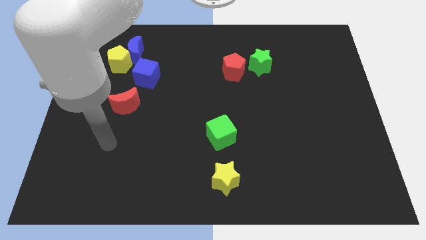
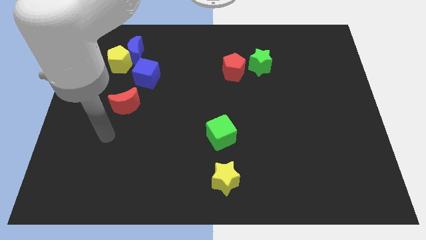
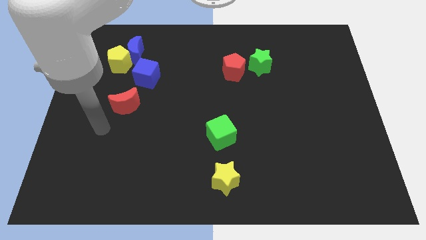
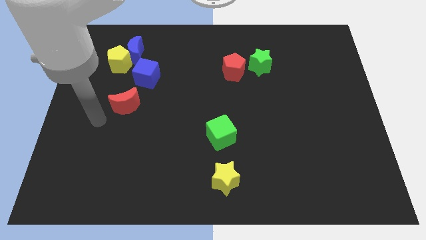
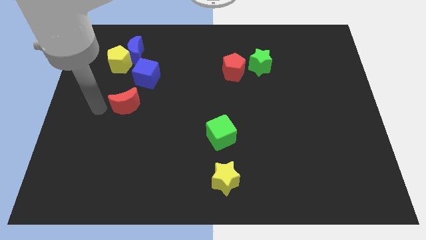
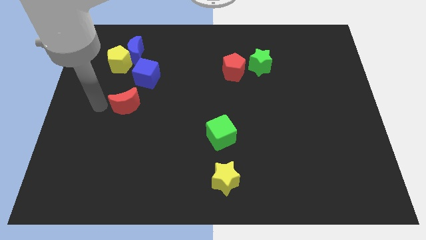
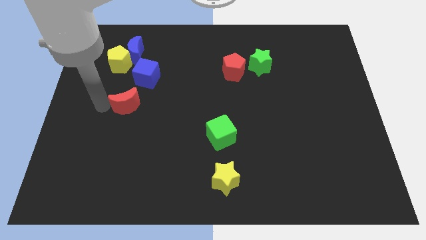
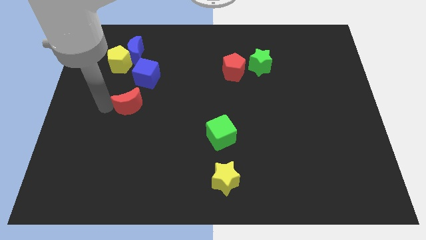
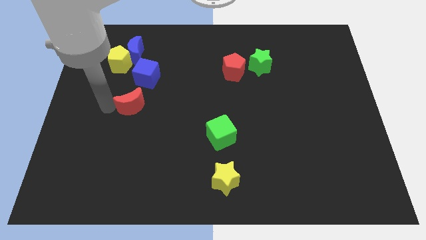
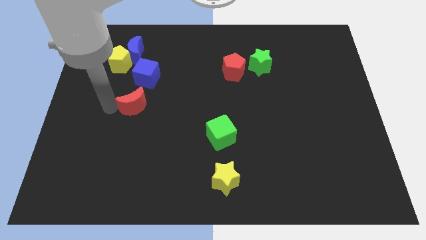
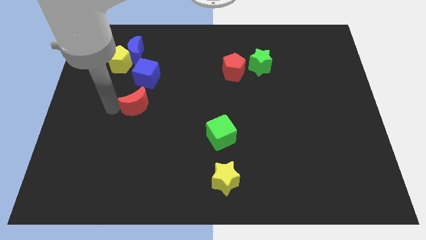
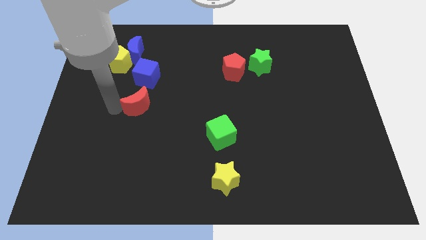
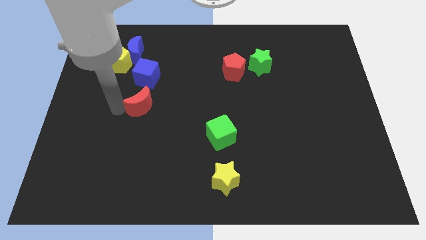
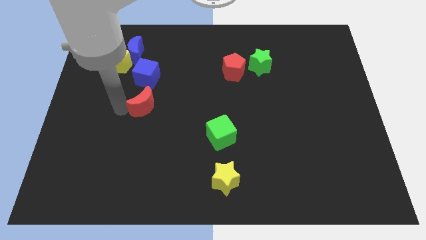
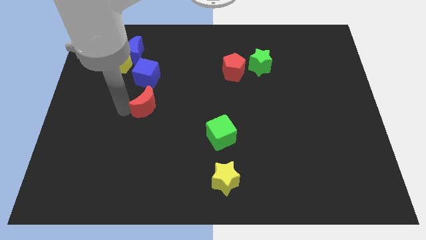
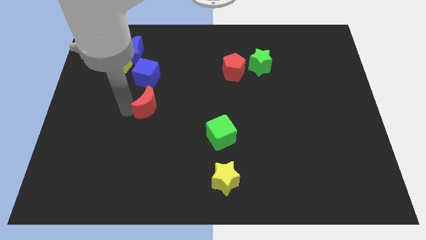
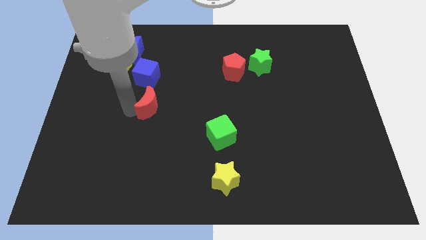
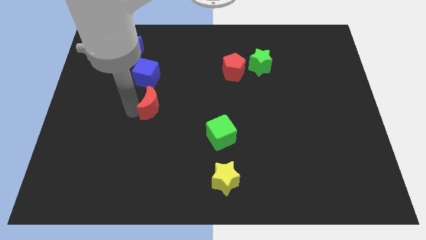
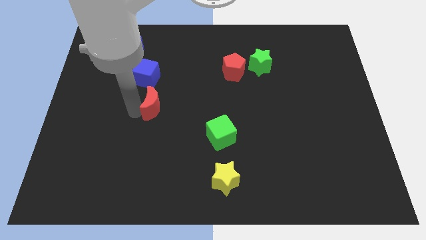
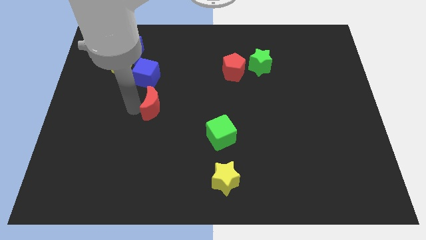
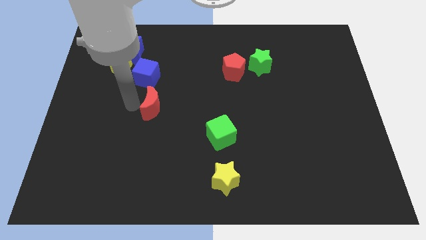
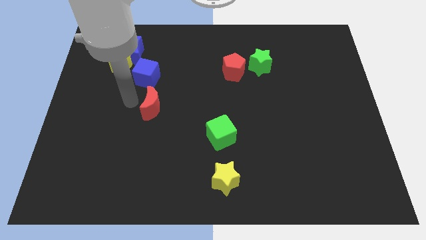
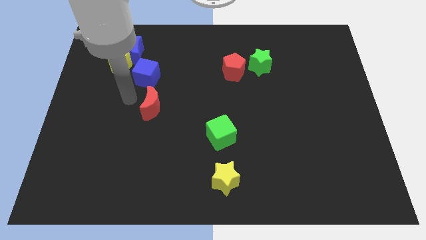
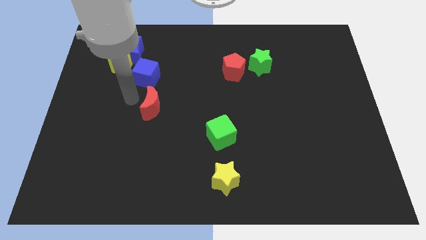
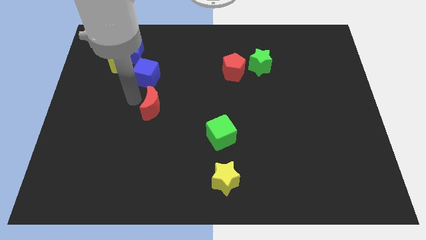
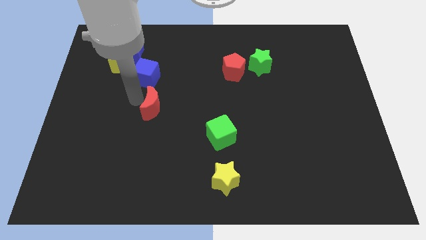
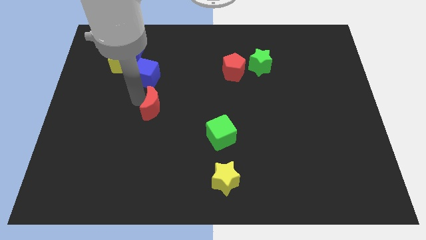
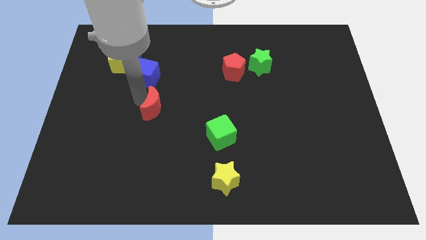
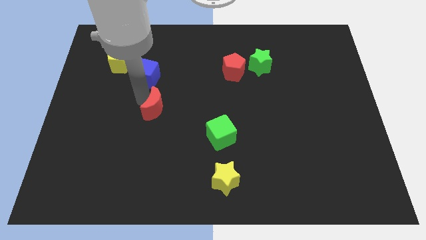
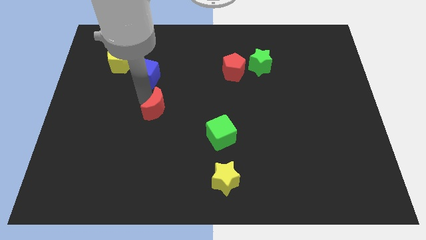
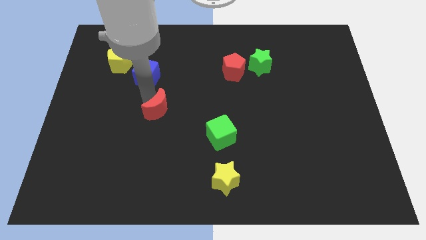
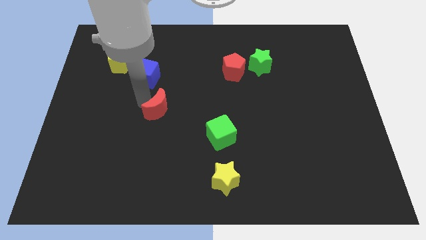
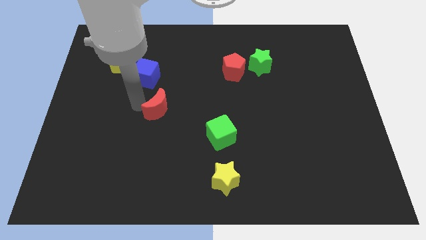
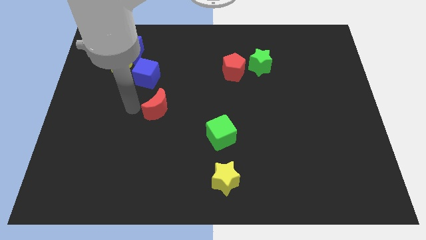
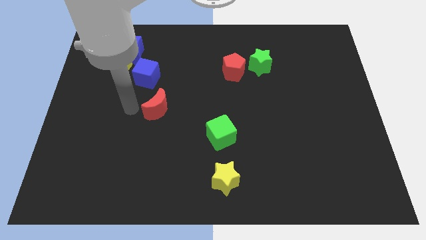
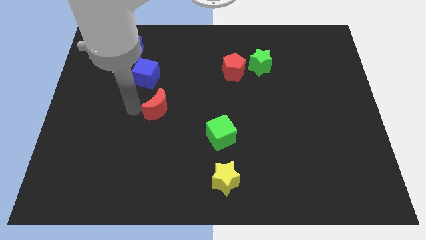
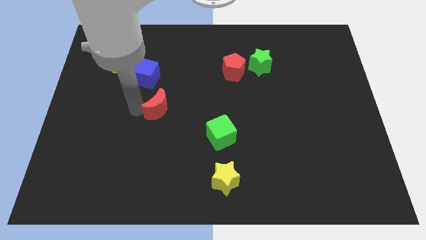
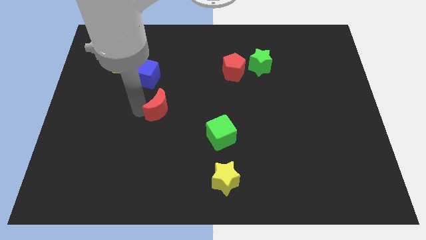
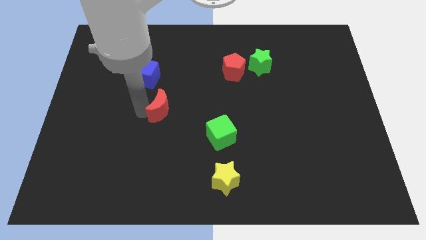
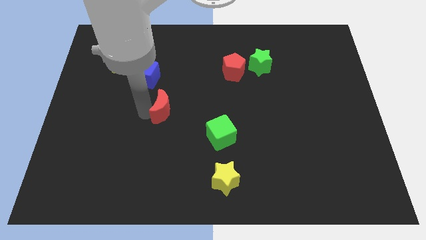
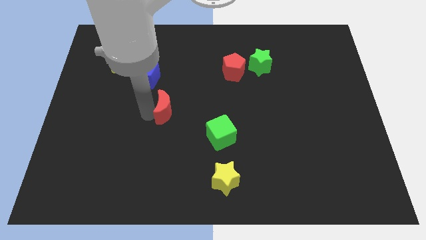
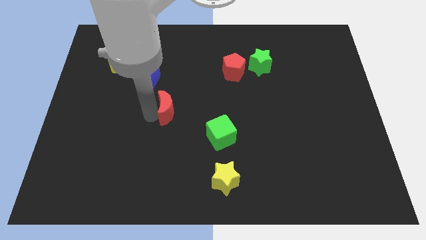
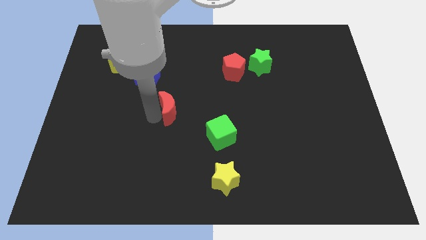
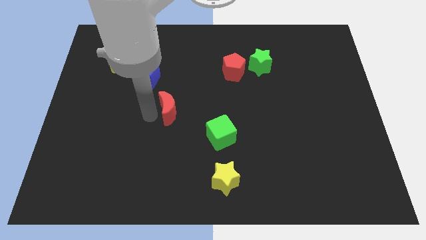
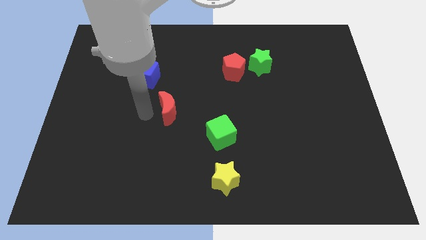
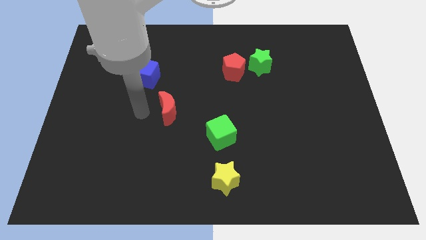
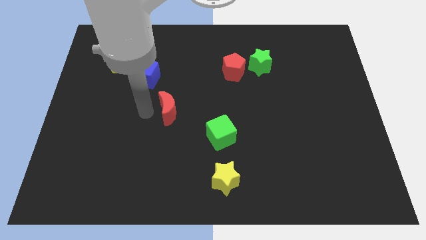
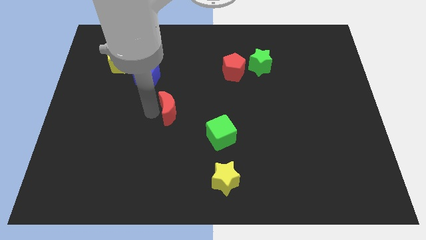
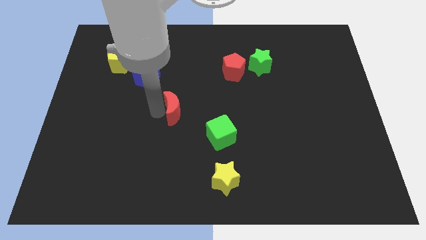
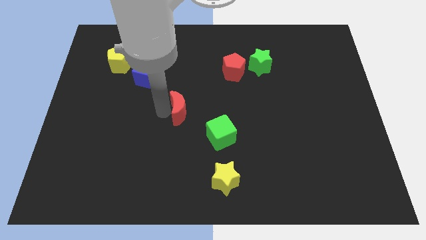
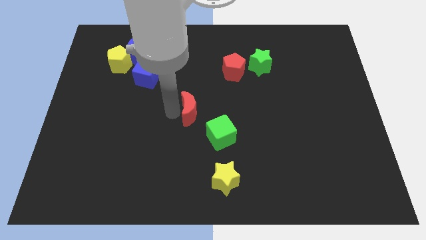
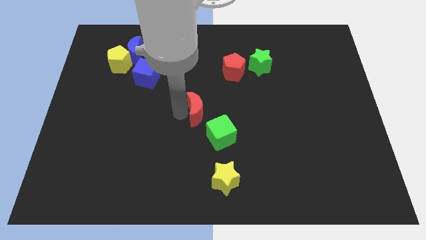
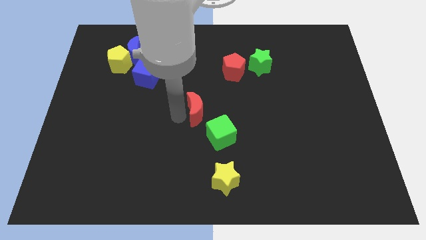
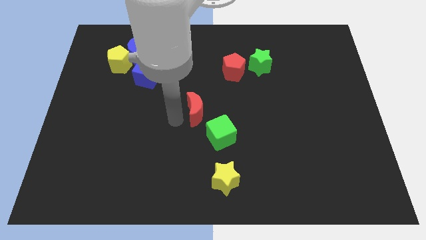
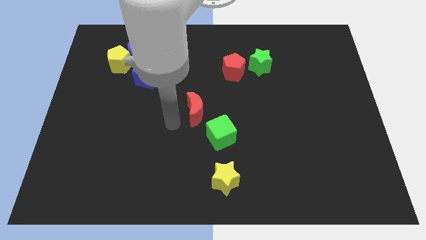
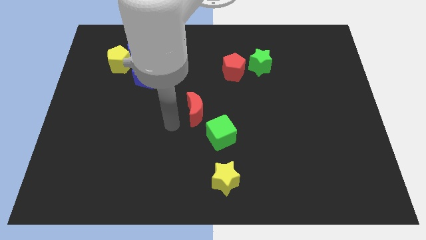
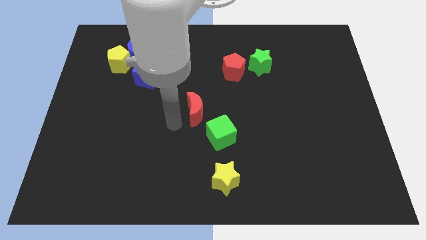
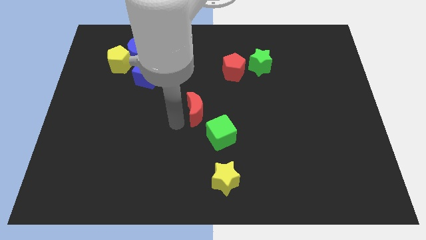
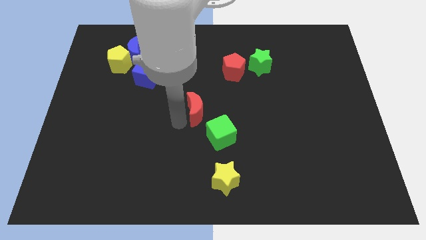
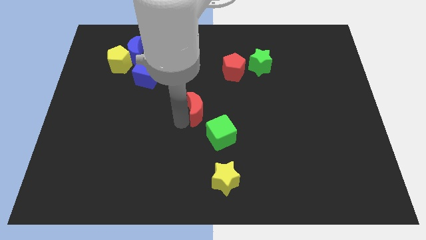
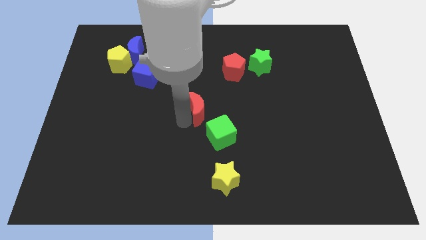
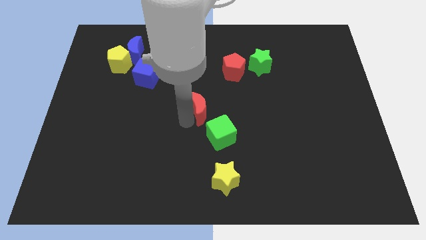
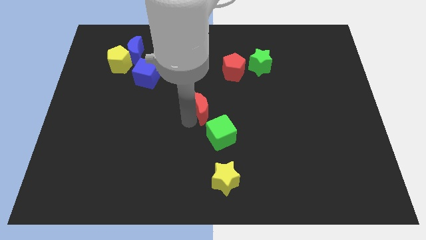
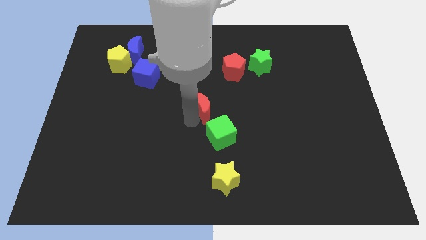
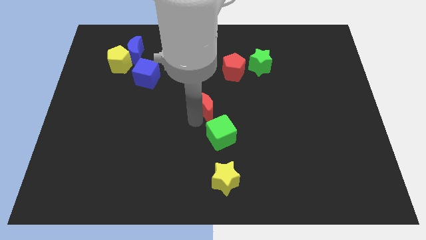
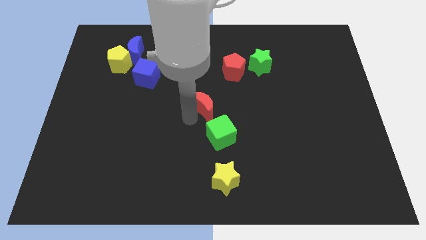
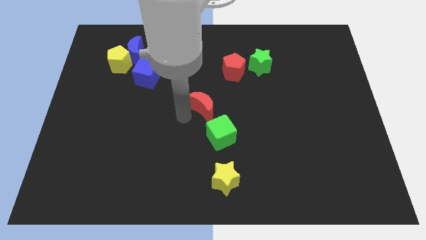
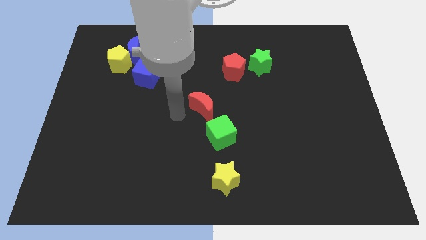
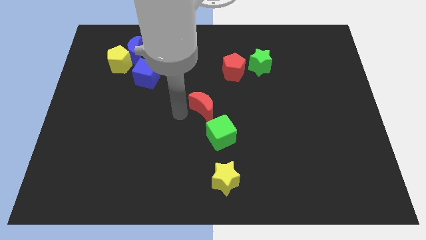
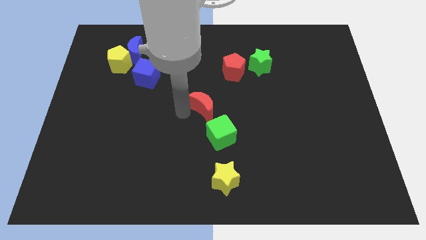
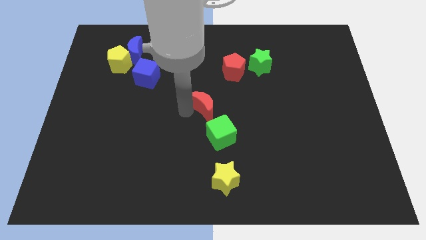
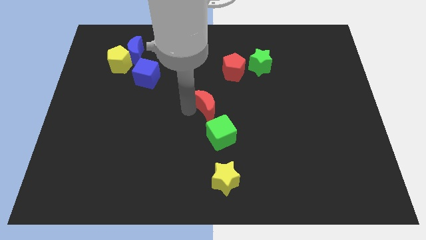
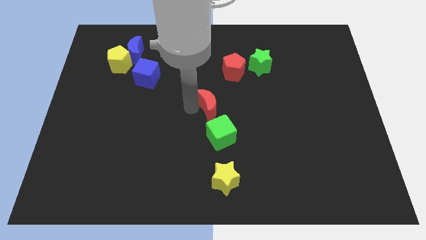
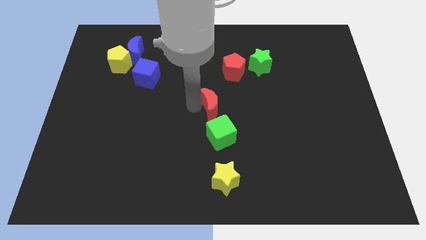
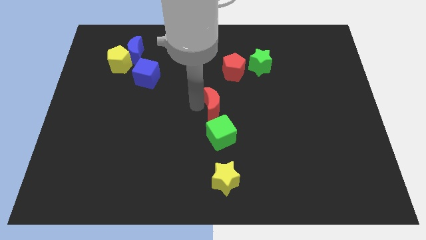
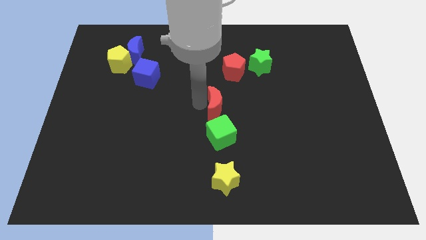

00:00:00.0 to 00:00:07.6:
push the red moon below the red pentagon

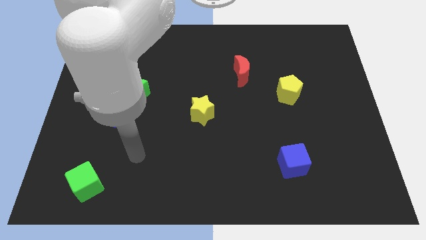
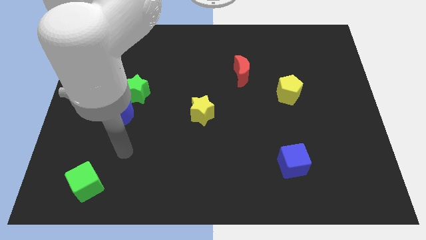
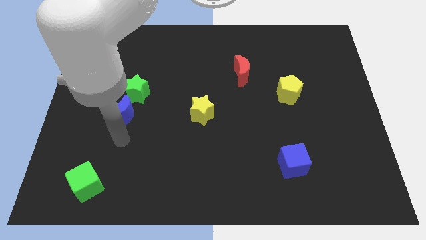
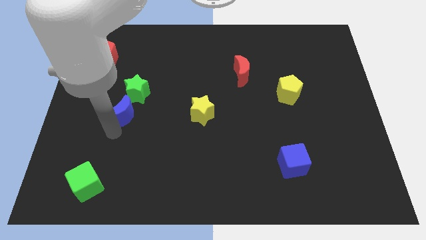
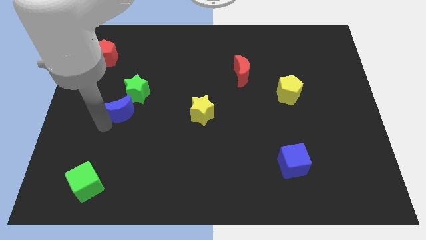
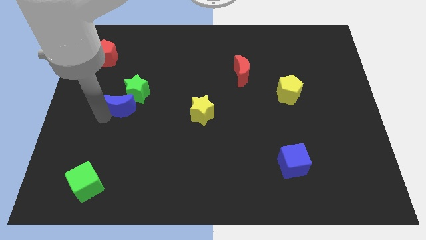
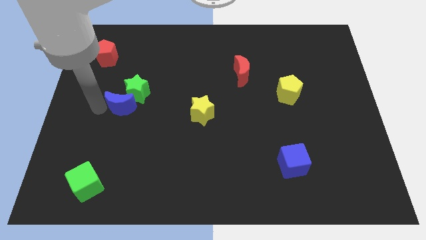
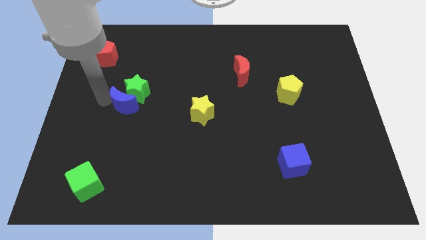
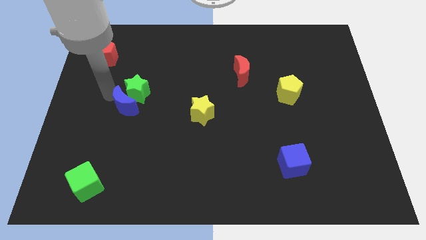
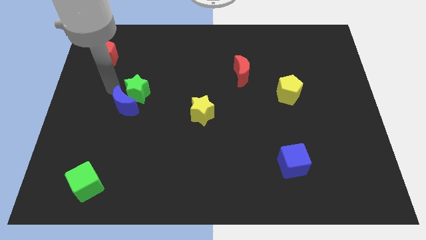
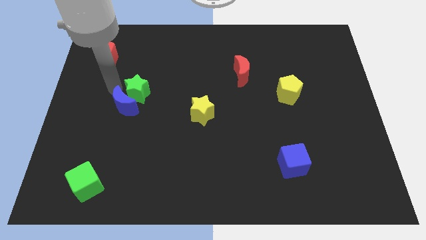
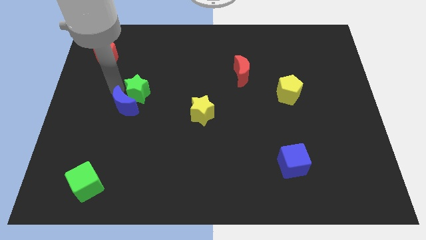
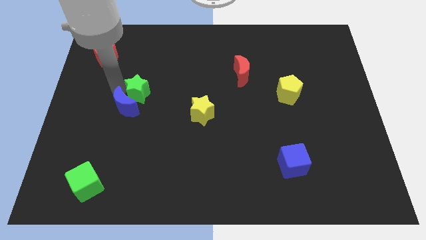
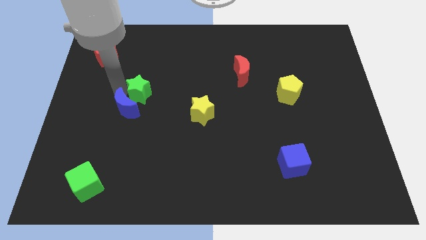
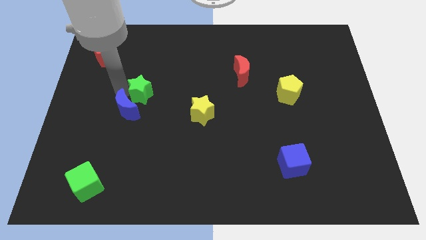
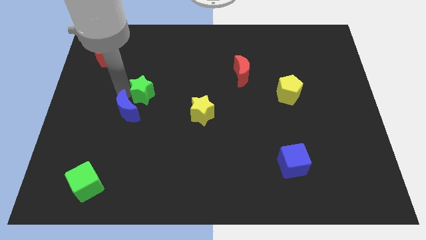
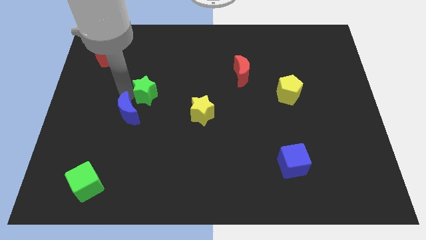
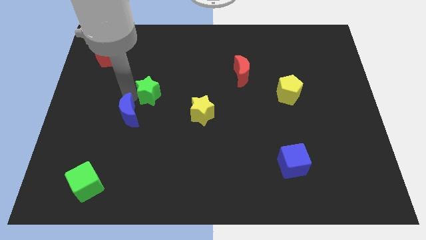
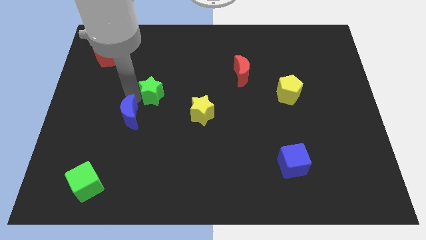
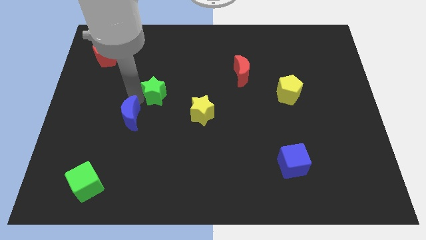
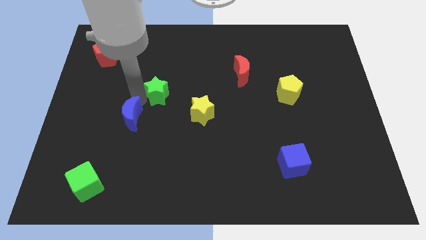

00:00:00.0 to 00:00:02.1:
slide the green star diagonally up and to the left of the yellow star
